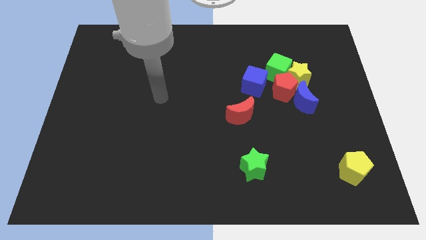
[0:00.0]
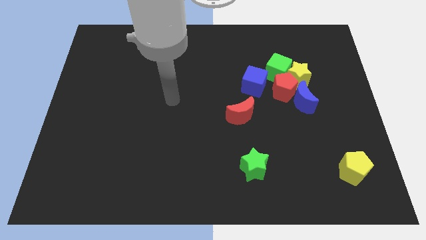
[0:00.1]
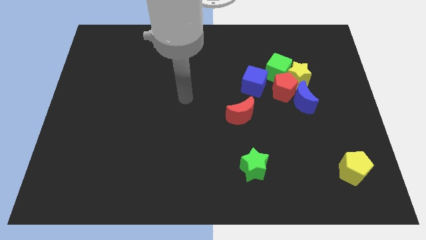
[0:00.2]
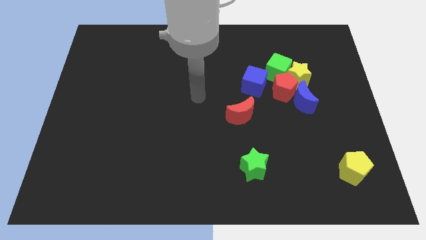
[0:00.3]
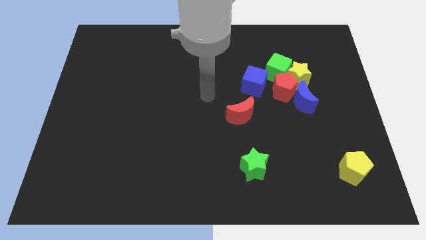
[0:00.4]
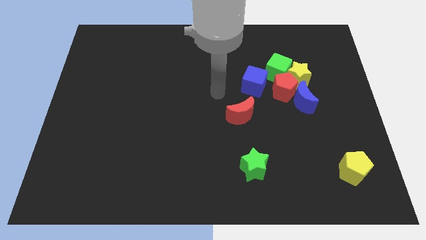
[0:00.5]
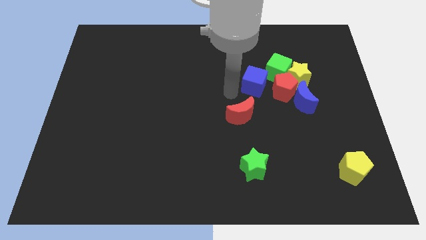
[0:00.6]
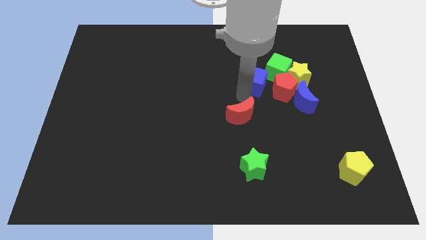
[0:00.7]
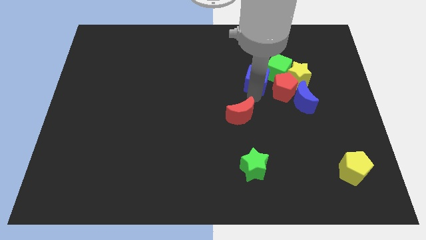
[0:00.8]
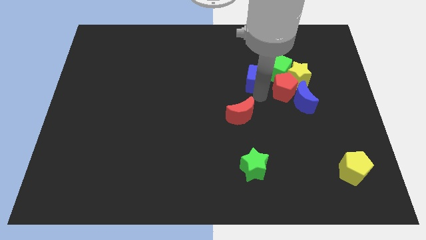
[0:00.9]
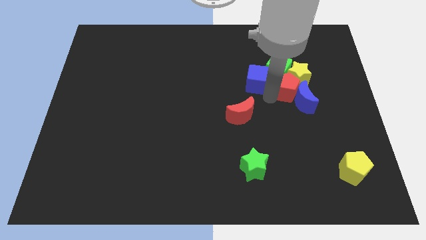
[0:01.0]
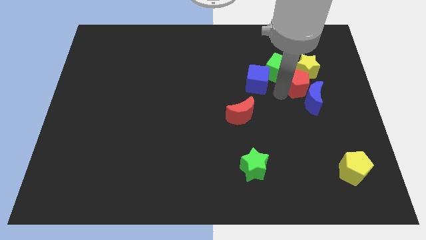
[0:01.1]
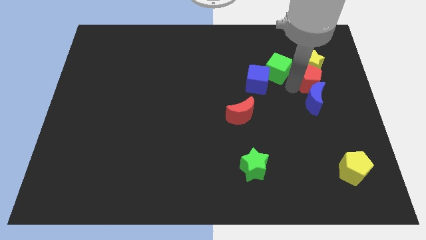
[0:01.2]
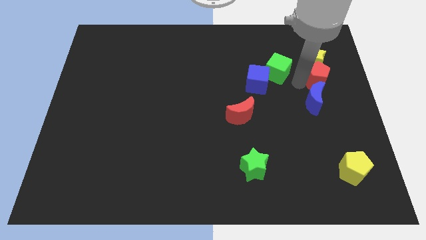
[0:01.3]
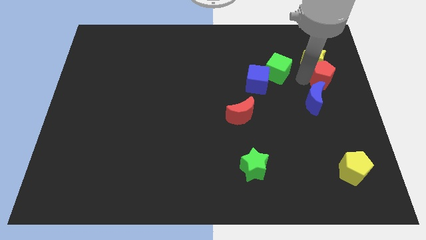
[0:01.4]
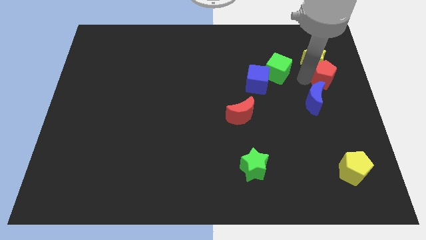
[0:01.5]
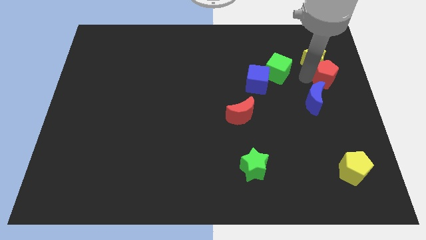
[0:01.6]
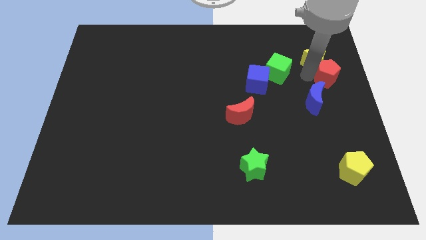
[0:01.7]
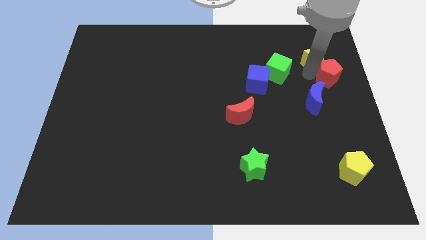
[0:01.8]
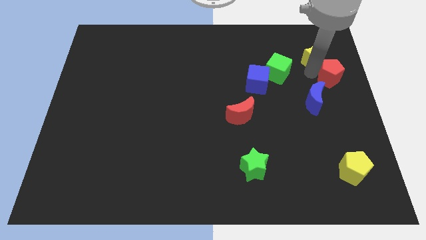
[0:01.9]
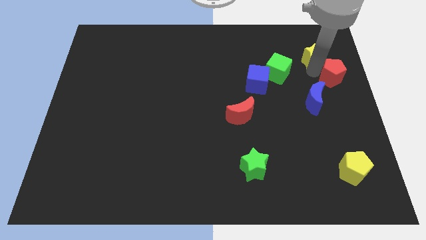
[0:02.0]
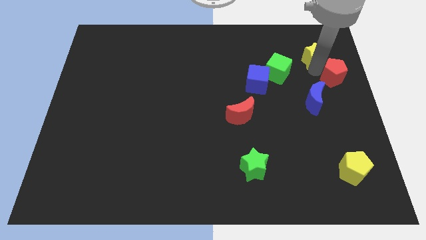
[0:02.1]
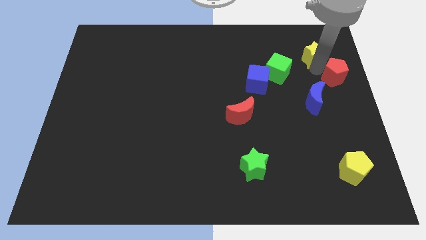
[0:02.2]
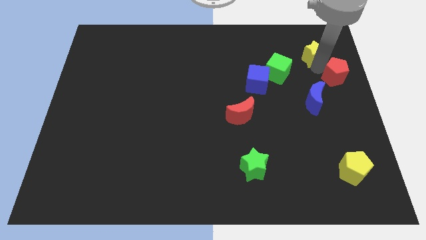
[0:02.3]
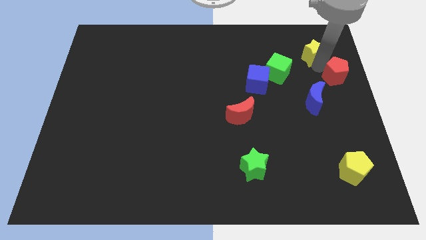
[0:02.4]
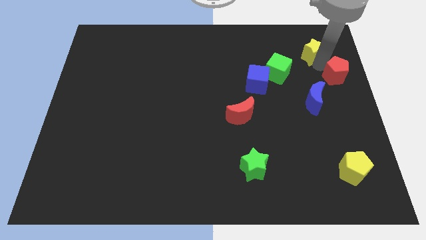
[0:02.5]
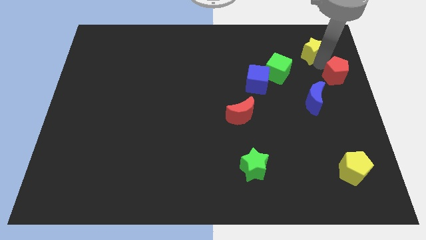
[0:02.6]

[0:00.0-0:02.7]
separate the yellow star from the red pentagon, green cube, and blue moon

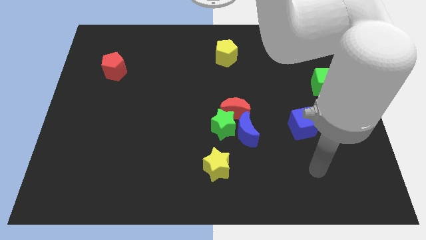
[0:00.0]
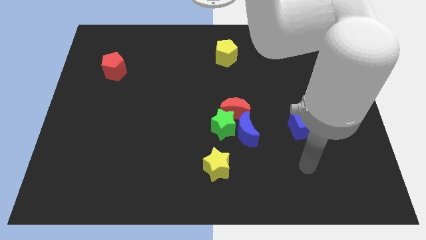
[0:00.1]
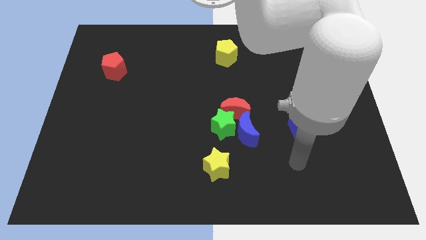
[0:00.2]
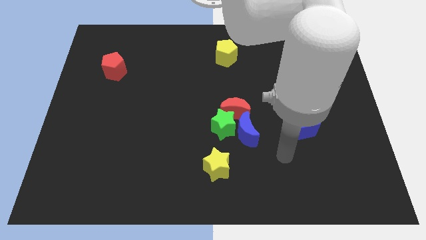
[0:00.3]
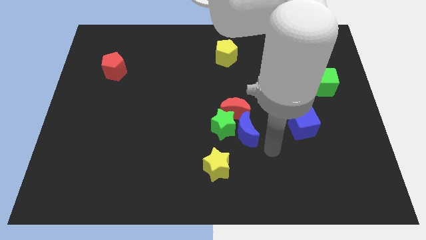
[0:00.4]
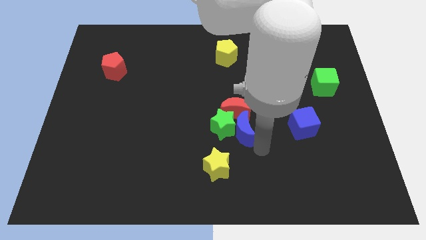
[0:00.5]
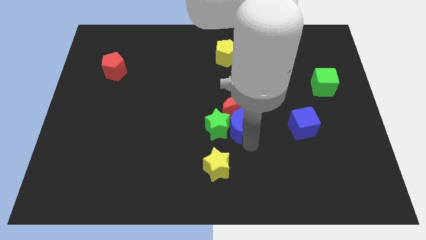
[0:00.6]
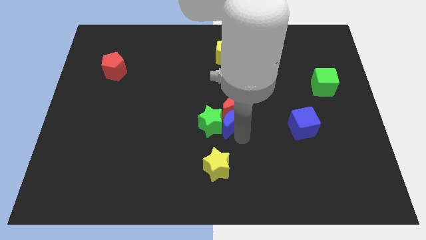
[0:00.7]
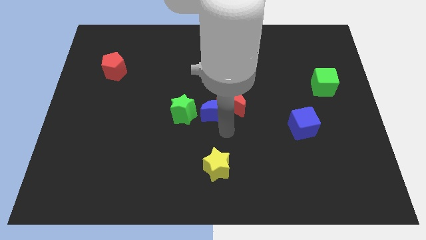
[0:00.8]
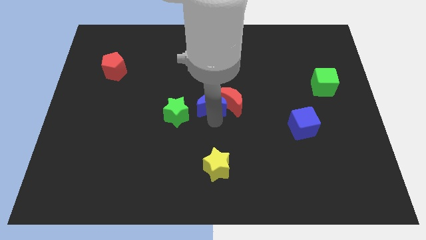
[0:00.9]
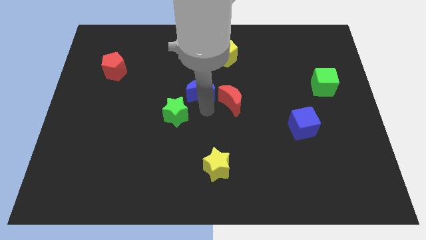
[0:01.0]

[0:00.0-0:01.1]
separate the red moon from the green star and blue moon

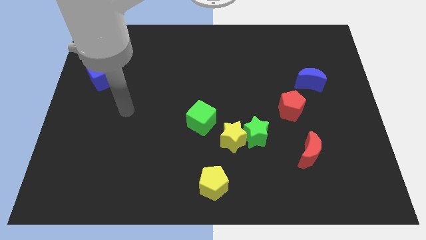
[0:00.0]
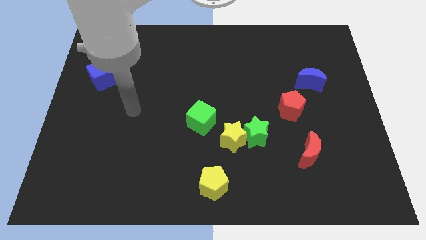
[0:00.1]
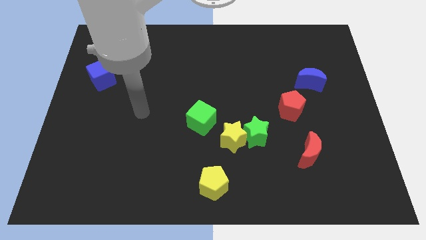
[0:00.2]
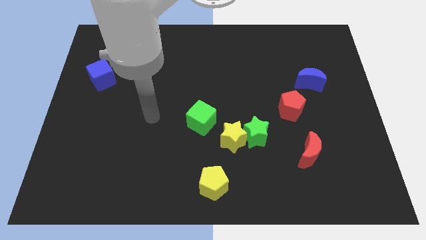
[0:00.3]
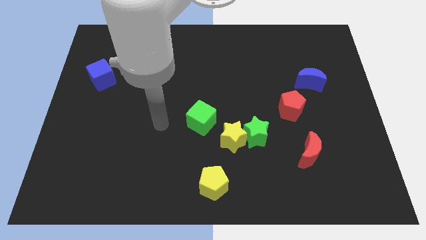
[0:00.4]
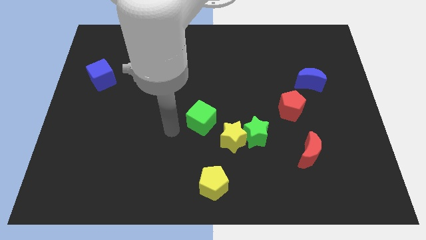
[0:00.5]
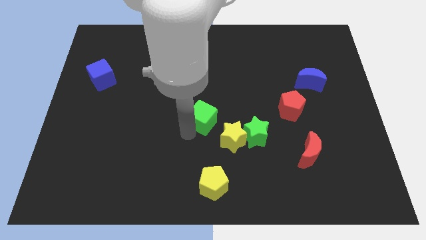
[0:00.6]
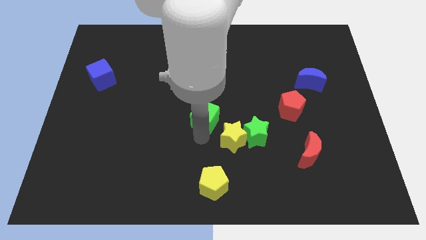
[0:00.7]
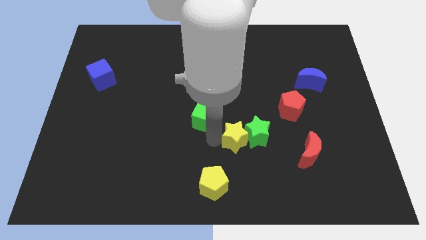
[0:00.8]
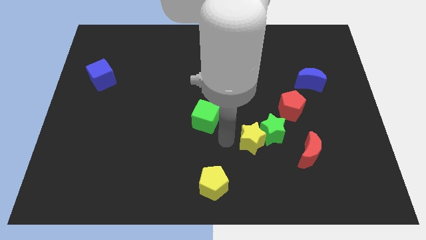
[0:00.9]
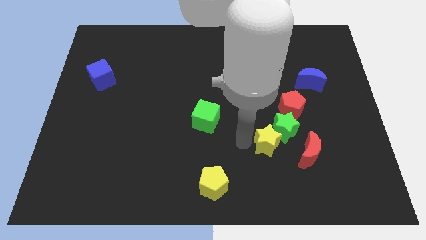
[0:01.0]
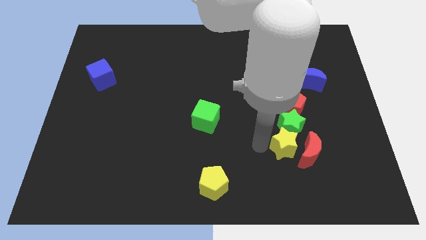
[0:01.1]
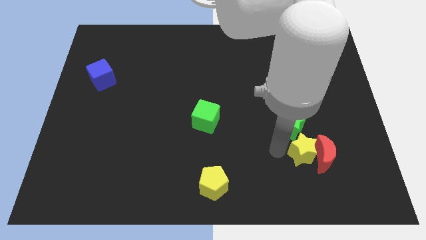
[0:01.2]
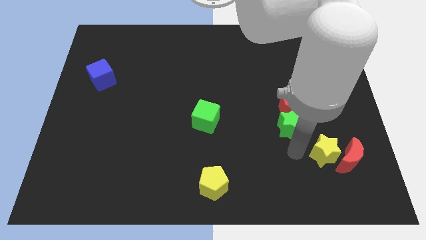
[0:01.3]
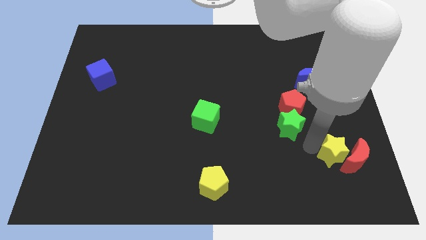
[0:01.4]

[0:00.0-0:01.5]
pull the green star apart from the yellow star

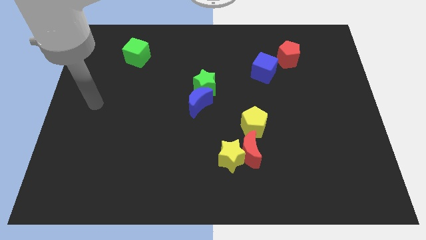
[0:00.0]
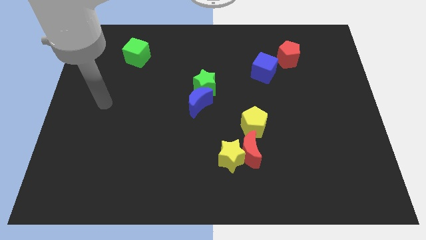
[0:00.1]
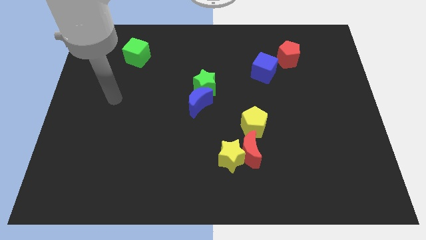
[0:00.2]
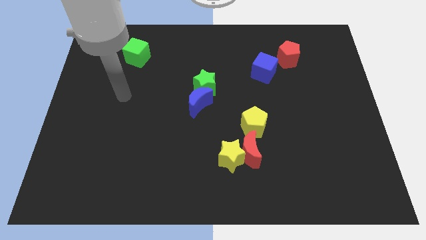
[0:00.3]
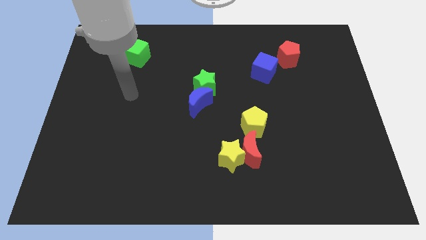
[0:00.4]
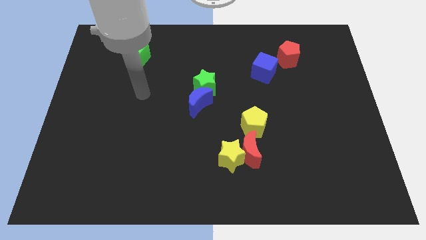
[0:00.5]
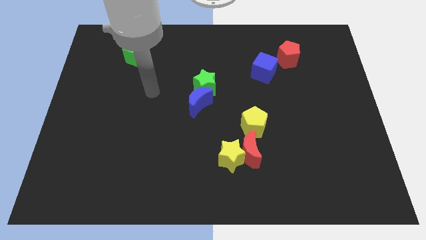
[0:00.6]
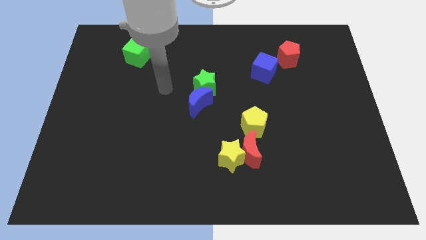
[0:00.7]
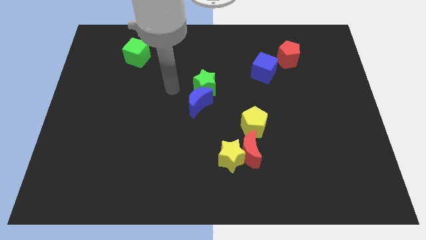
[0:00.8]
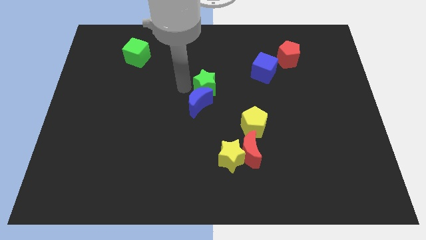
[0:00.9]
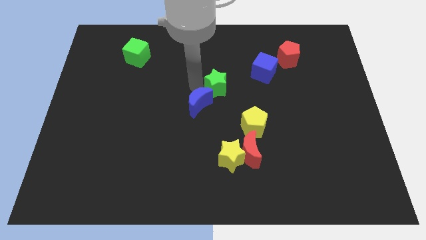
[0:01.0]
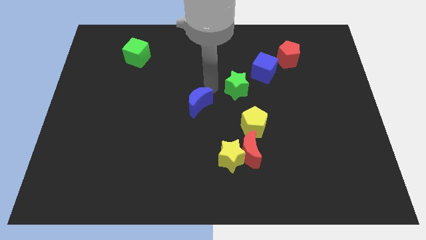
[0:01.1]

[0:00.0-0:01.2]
separate the blue moon from the green star

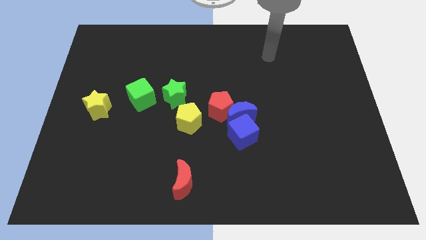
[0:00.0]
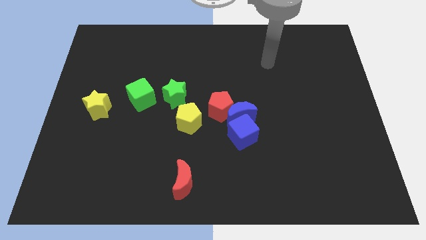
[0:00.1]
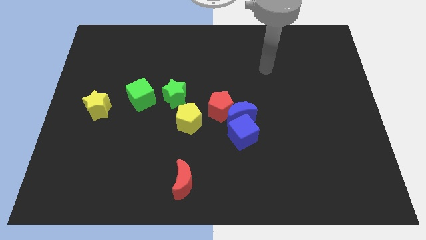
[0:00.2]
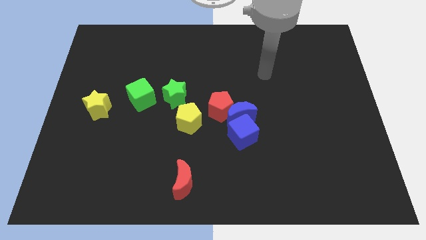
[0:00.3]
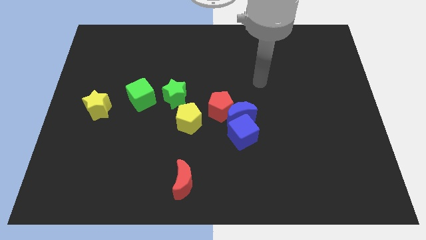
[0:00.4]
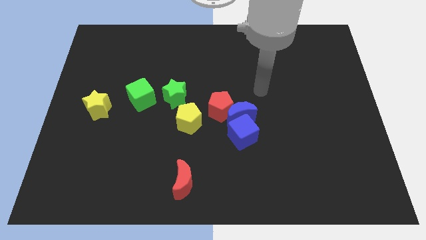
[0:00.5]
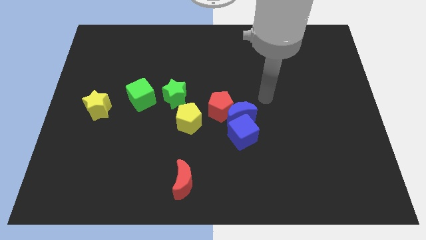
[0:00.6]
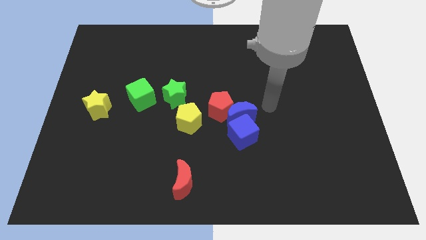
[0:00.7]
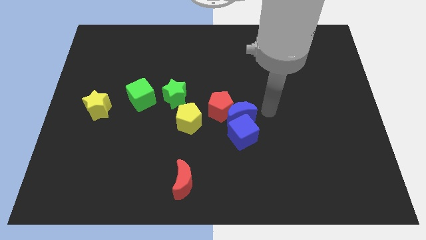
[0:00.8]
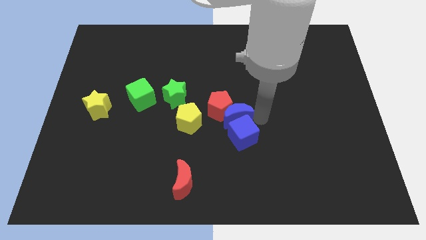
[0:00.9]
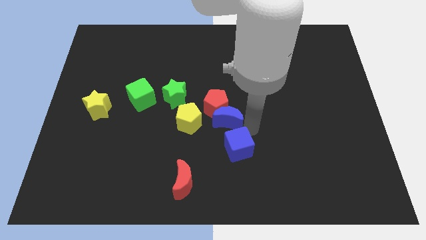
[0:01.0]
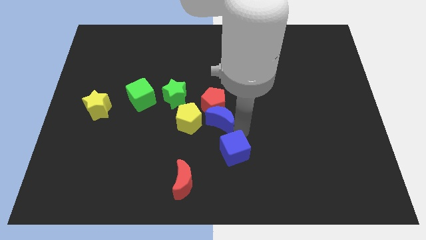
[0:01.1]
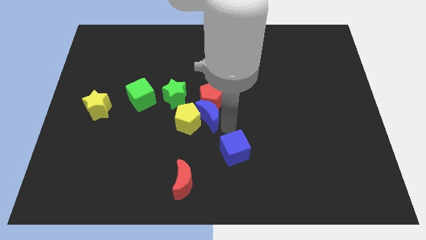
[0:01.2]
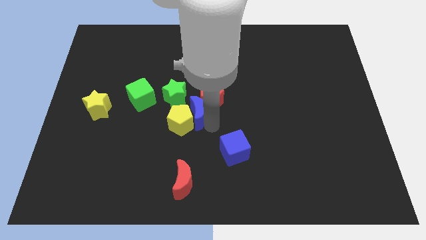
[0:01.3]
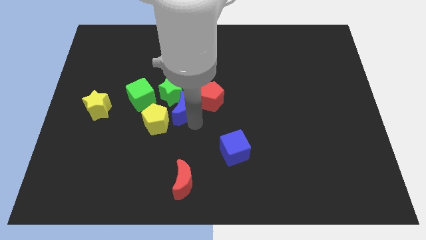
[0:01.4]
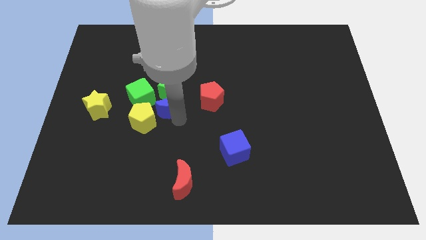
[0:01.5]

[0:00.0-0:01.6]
move the blue moon away from the red pentagon and blue cube

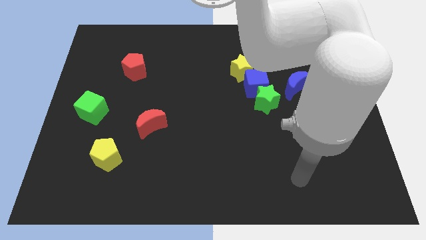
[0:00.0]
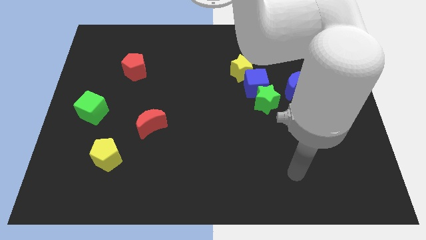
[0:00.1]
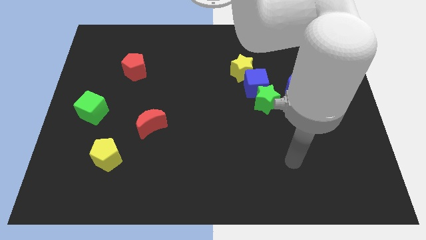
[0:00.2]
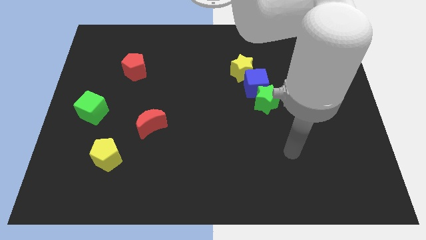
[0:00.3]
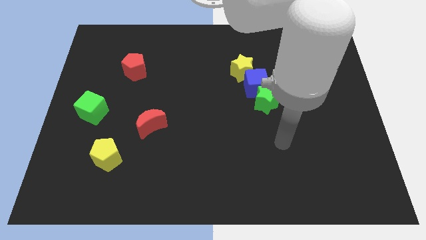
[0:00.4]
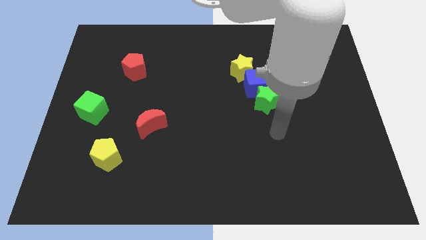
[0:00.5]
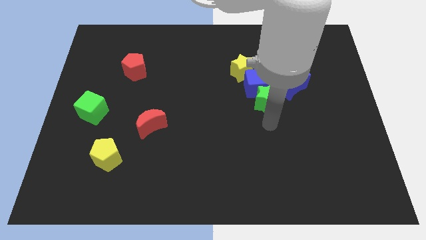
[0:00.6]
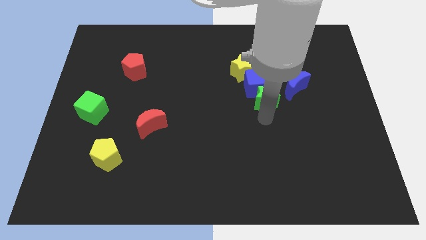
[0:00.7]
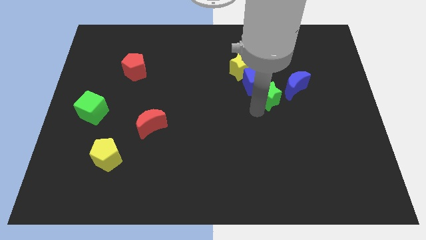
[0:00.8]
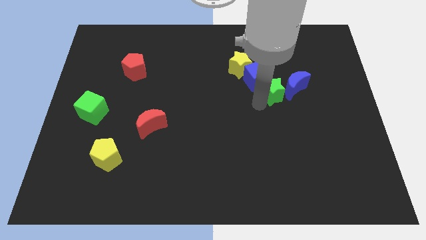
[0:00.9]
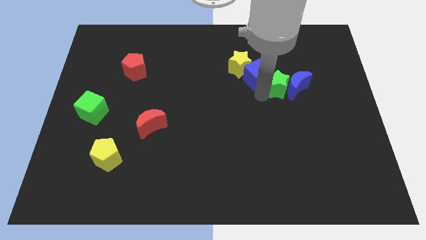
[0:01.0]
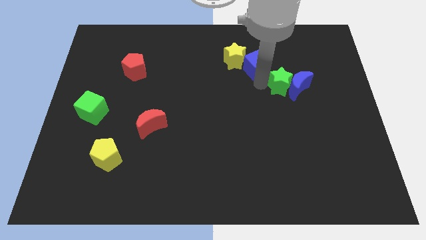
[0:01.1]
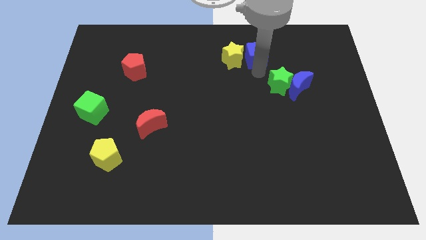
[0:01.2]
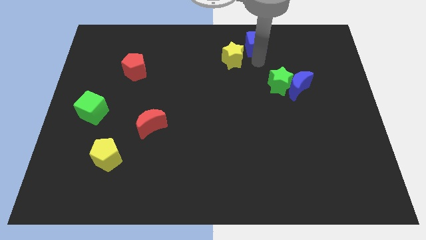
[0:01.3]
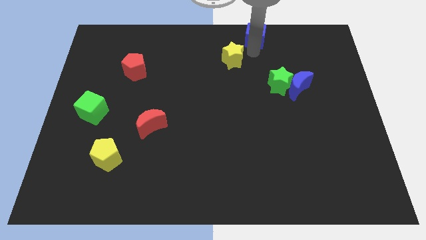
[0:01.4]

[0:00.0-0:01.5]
pull the yellow star apart from the blue cube
